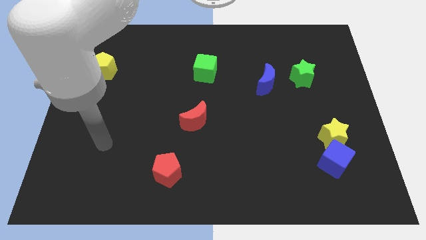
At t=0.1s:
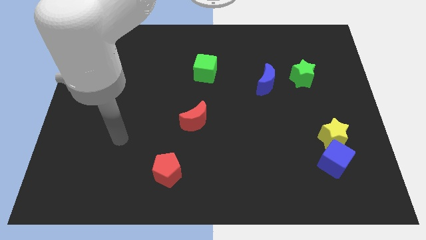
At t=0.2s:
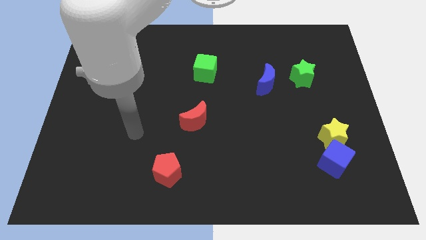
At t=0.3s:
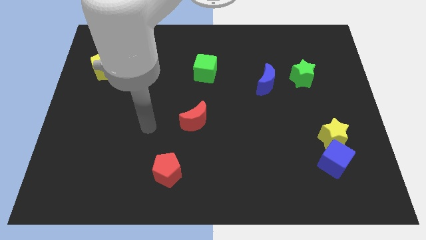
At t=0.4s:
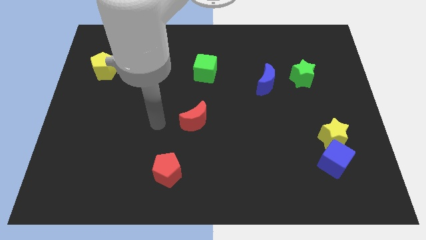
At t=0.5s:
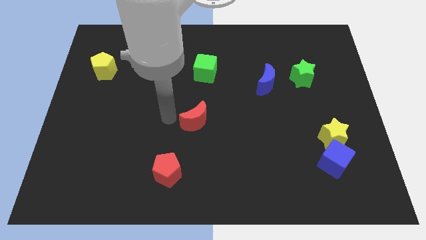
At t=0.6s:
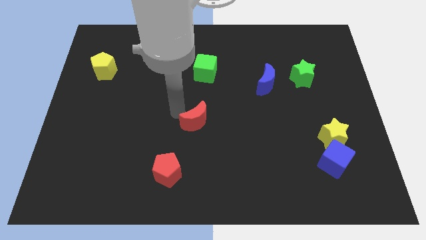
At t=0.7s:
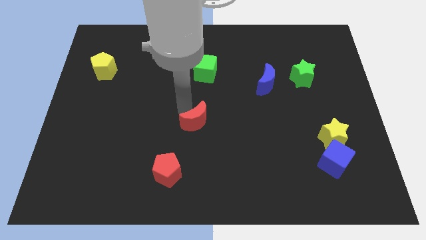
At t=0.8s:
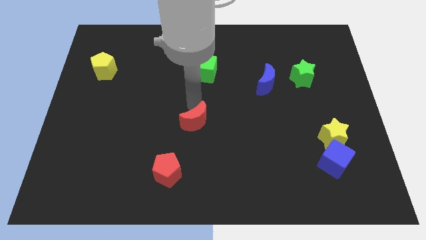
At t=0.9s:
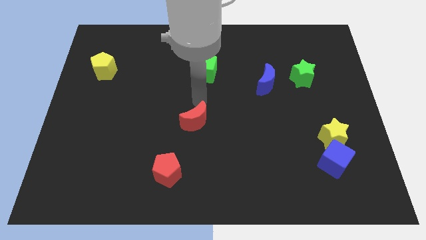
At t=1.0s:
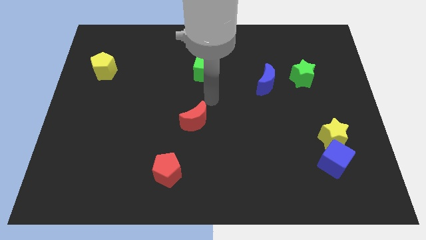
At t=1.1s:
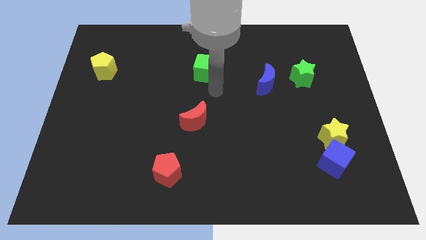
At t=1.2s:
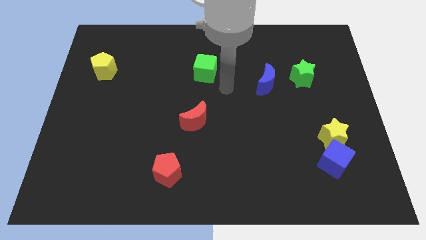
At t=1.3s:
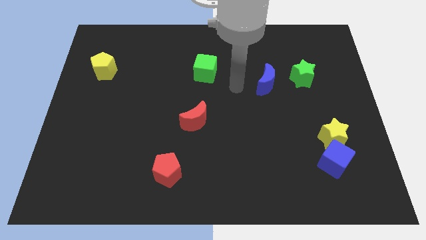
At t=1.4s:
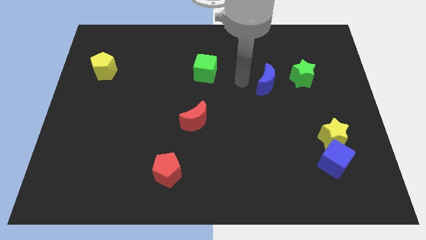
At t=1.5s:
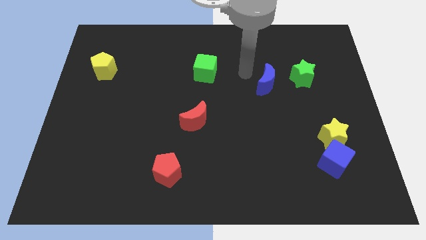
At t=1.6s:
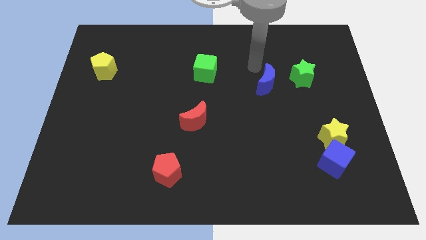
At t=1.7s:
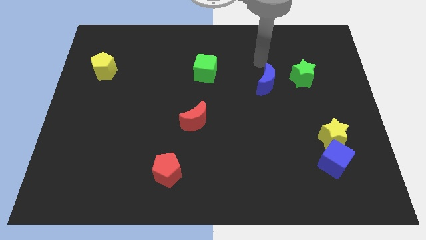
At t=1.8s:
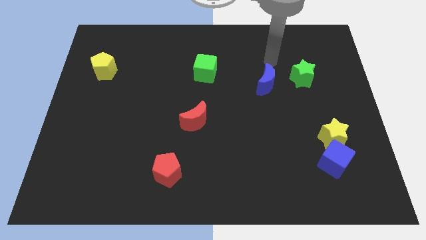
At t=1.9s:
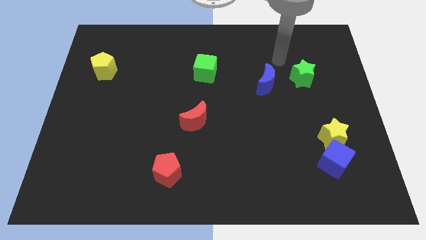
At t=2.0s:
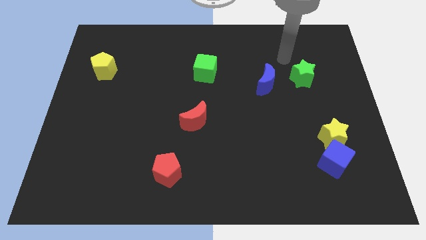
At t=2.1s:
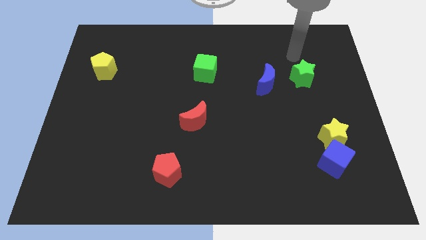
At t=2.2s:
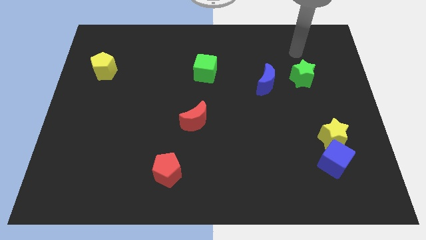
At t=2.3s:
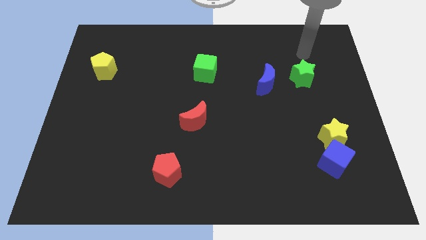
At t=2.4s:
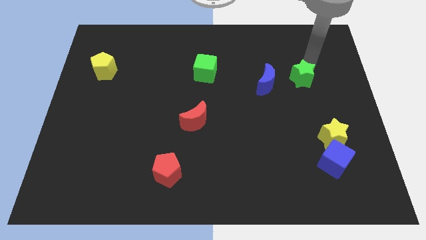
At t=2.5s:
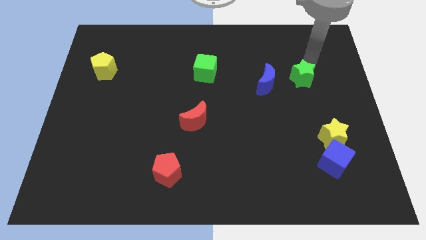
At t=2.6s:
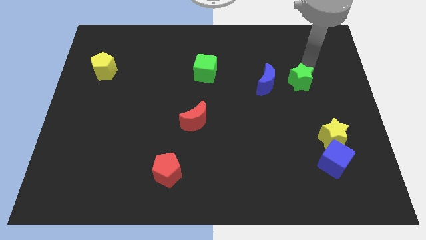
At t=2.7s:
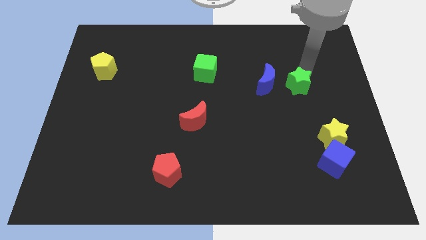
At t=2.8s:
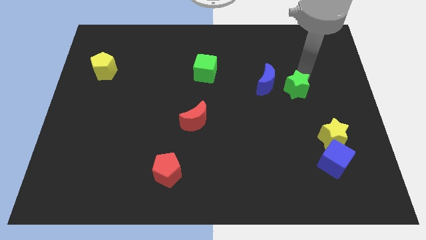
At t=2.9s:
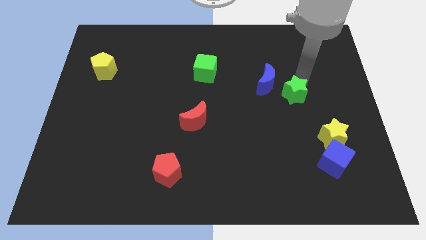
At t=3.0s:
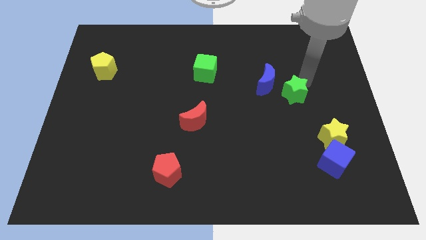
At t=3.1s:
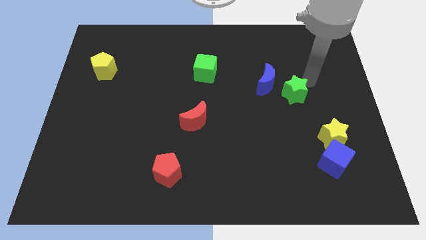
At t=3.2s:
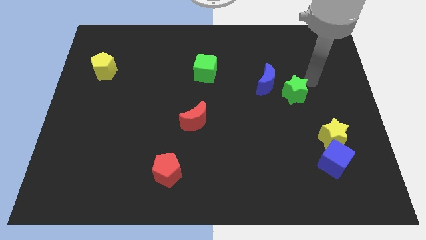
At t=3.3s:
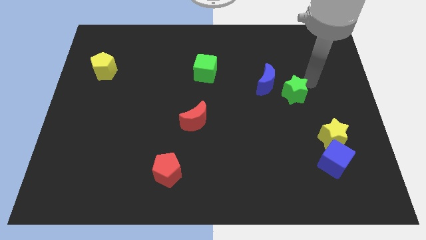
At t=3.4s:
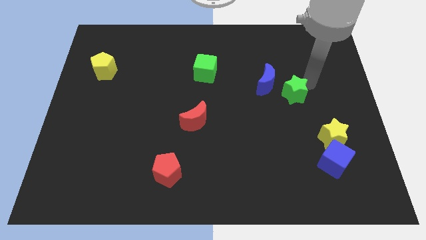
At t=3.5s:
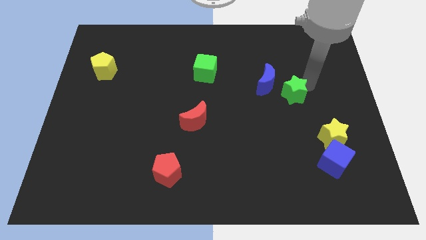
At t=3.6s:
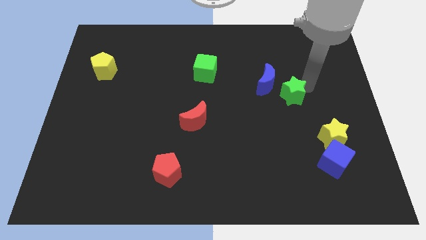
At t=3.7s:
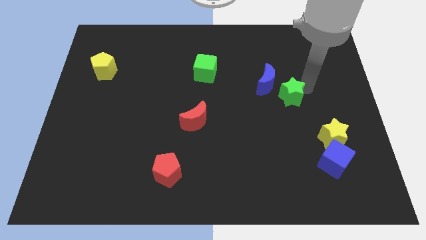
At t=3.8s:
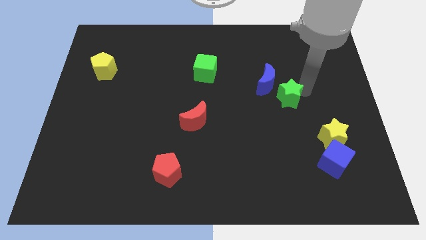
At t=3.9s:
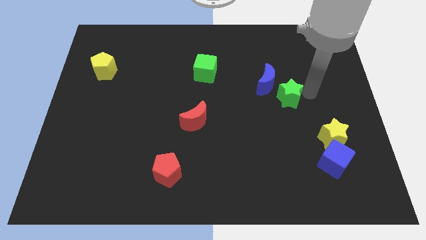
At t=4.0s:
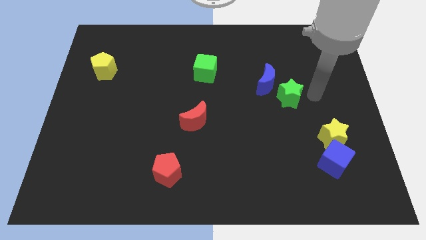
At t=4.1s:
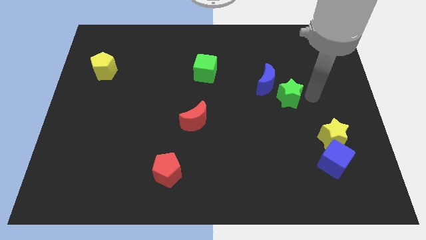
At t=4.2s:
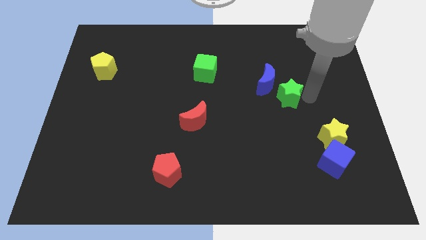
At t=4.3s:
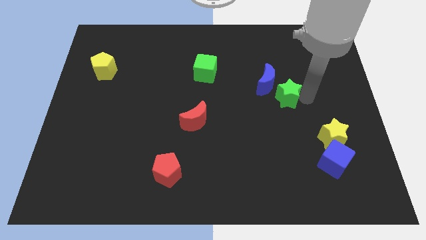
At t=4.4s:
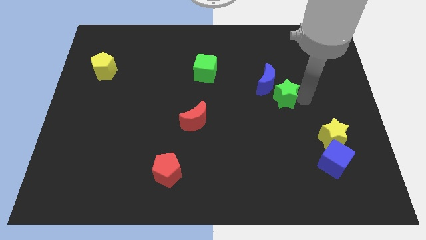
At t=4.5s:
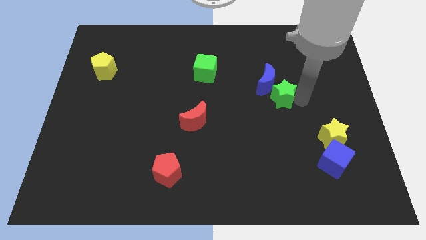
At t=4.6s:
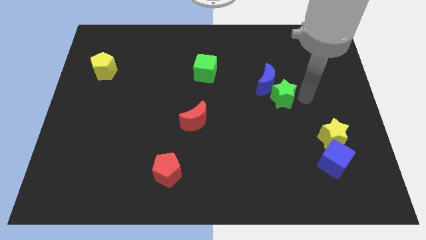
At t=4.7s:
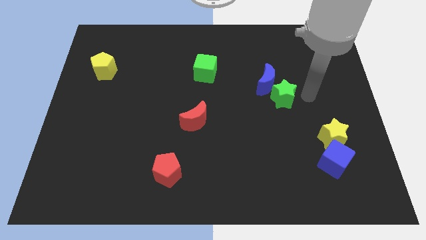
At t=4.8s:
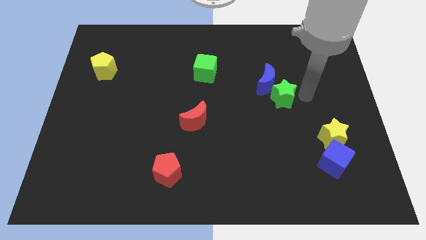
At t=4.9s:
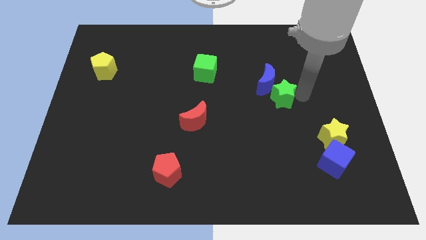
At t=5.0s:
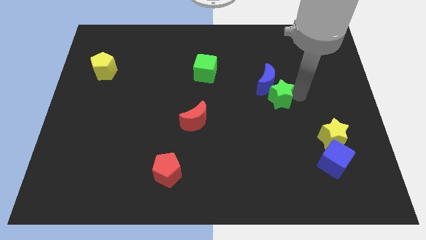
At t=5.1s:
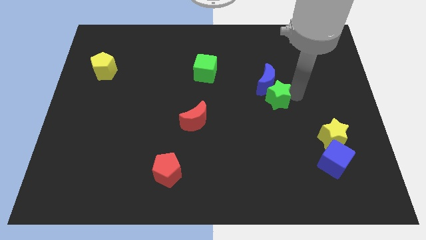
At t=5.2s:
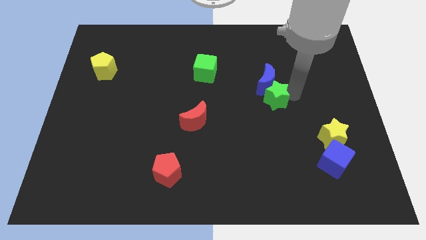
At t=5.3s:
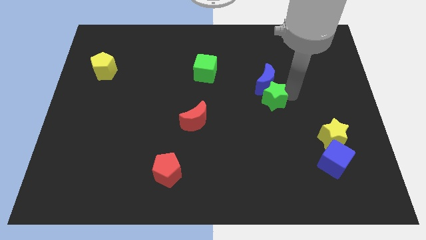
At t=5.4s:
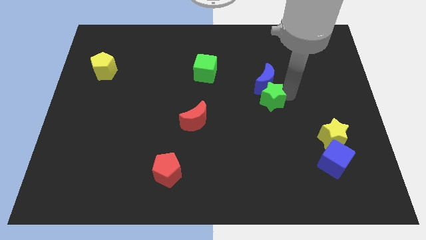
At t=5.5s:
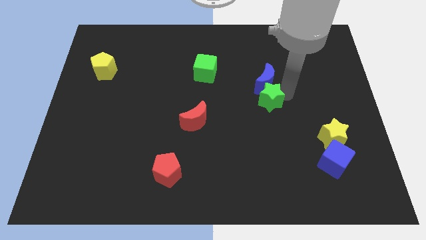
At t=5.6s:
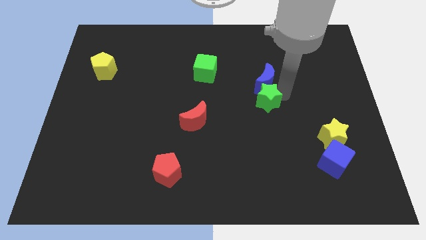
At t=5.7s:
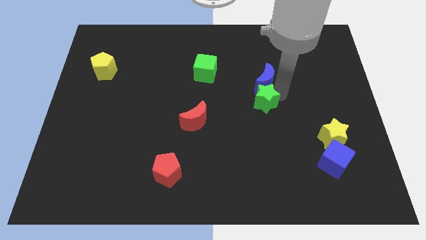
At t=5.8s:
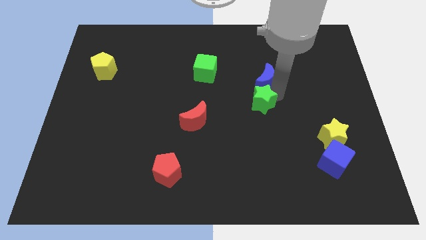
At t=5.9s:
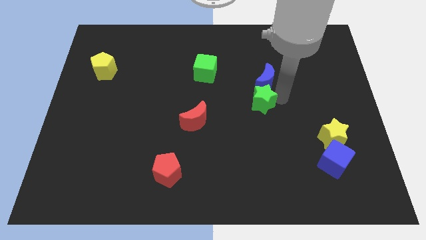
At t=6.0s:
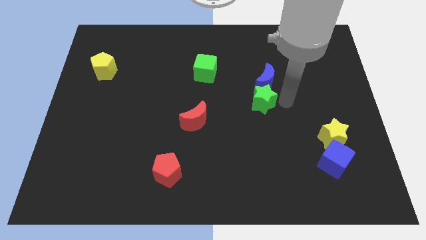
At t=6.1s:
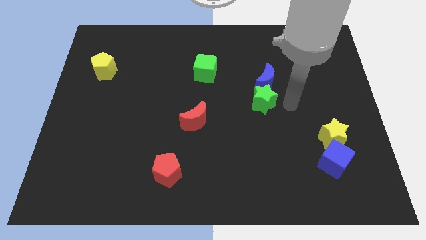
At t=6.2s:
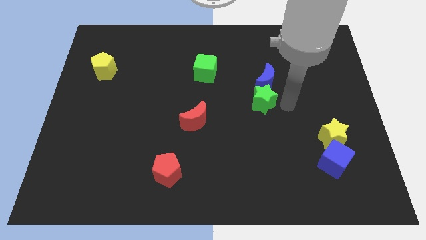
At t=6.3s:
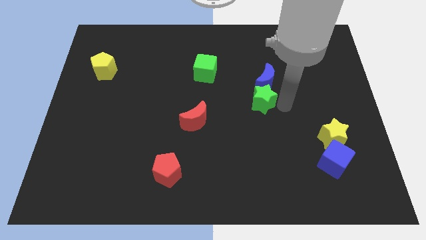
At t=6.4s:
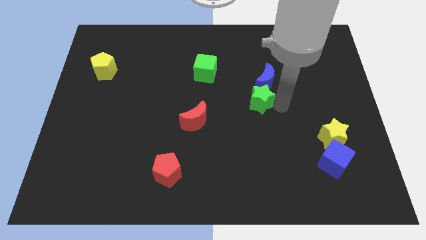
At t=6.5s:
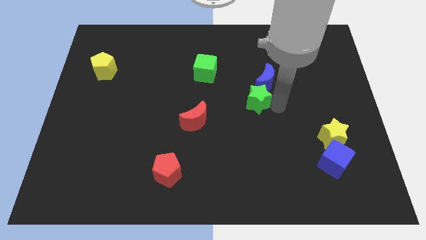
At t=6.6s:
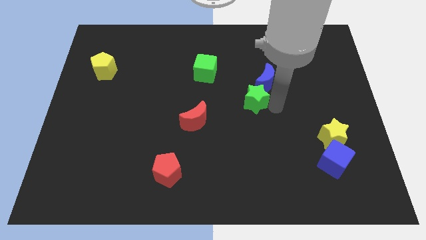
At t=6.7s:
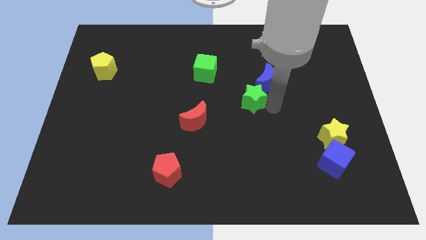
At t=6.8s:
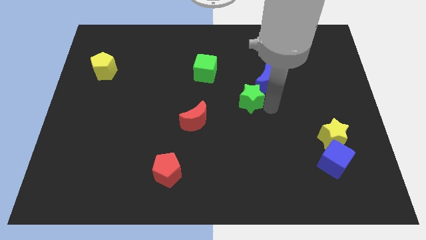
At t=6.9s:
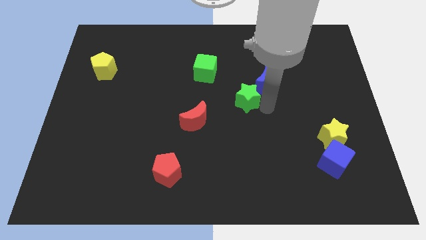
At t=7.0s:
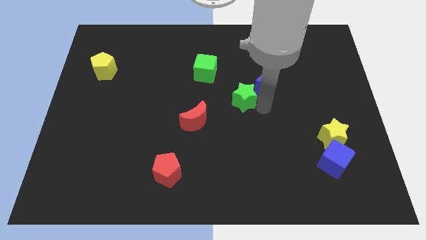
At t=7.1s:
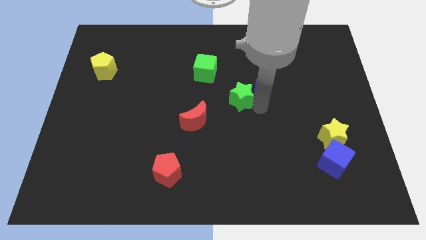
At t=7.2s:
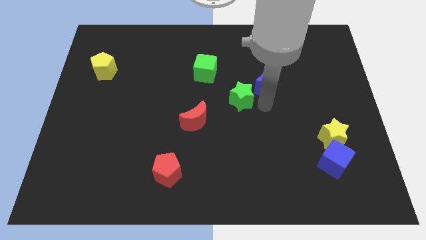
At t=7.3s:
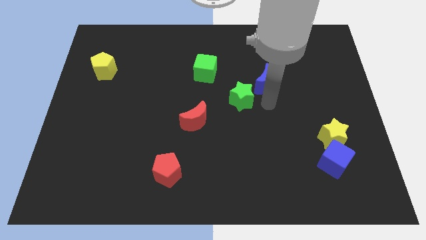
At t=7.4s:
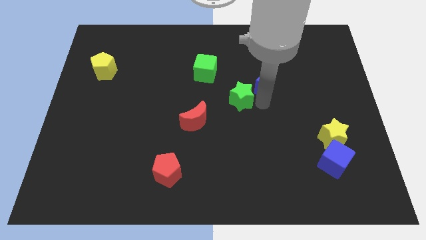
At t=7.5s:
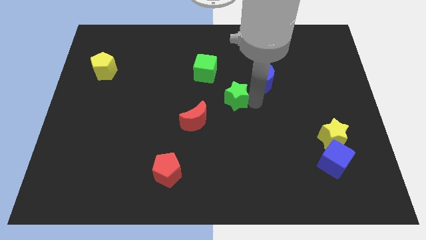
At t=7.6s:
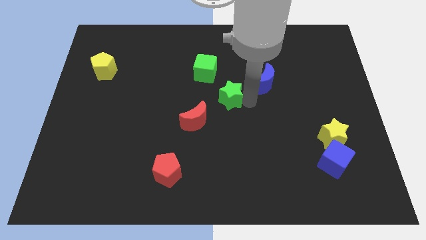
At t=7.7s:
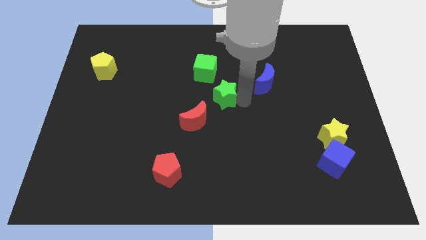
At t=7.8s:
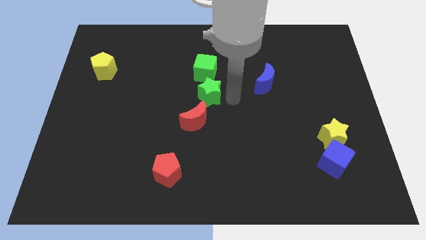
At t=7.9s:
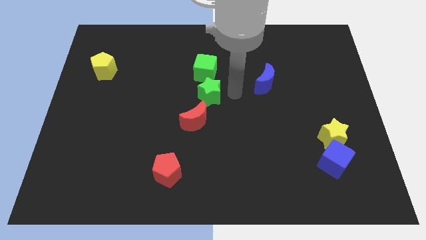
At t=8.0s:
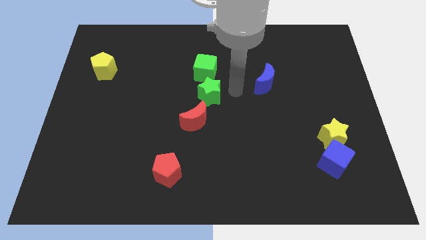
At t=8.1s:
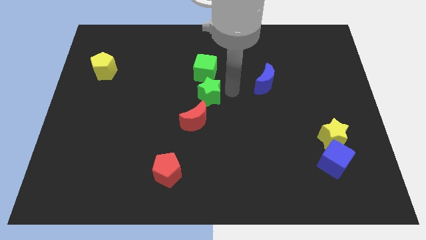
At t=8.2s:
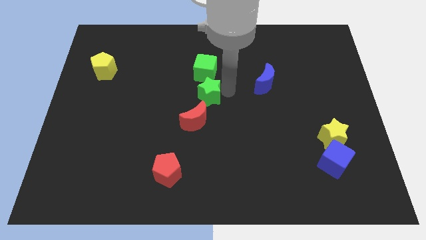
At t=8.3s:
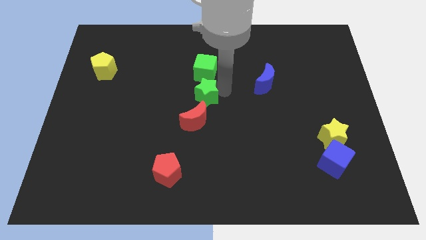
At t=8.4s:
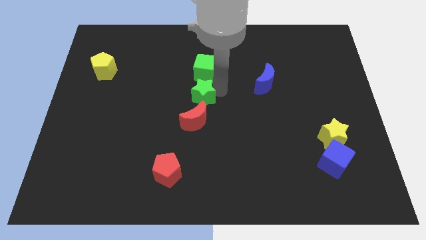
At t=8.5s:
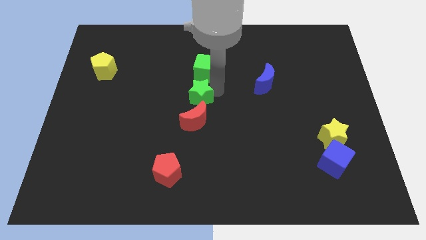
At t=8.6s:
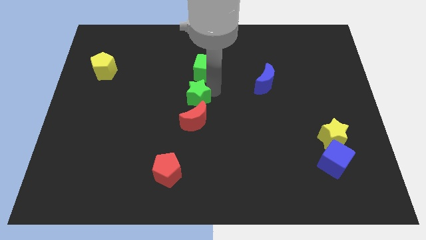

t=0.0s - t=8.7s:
move the green star diagonally up and to the left of the red moon
